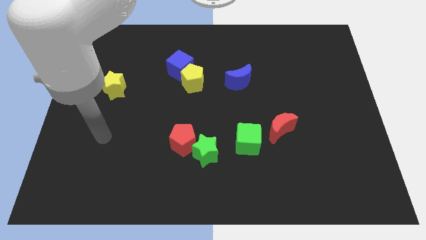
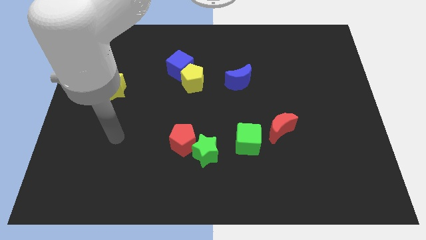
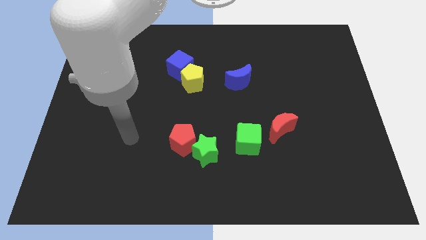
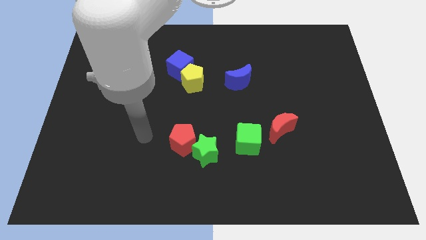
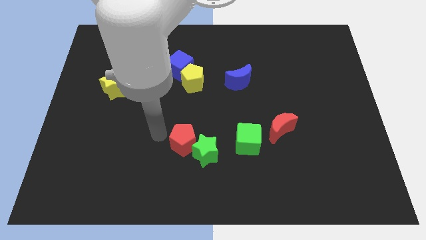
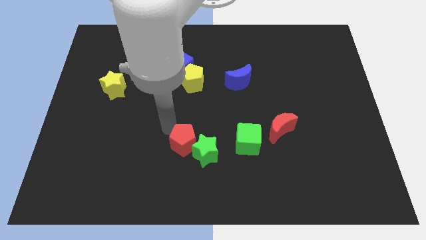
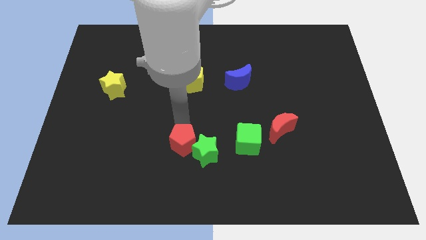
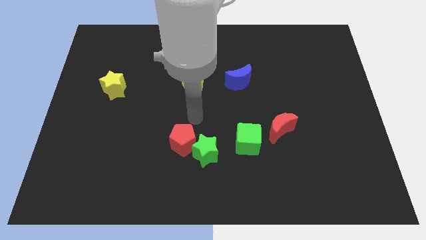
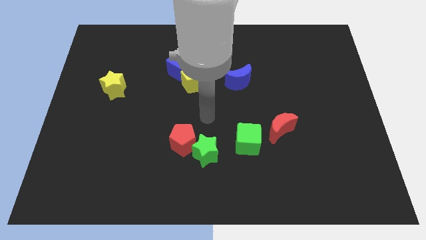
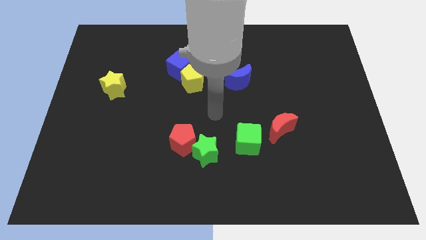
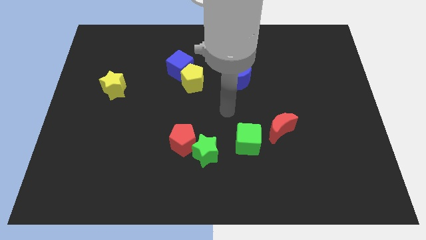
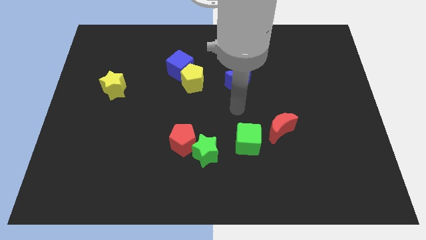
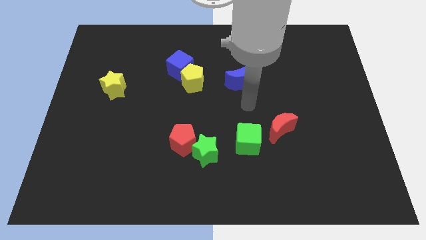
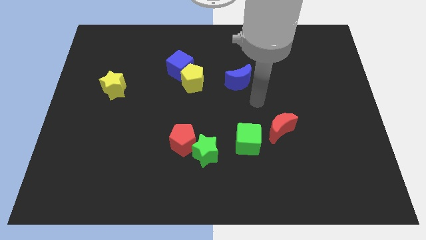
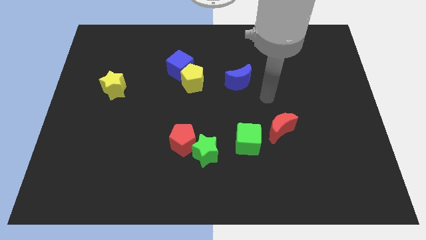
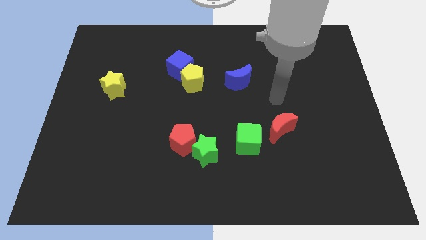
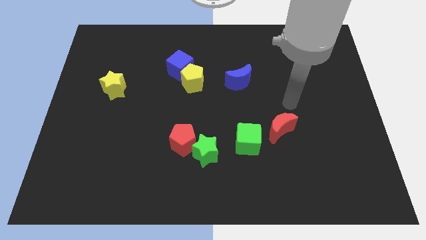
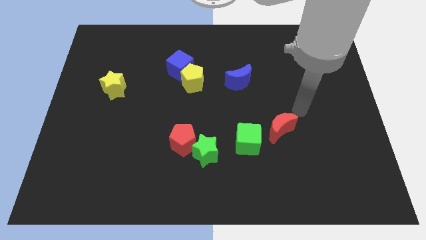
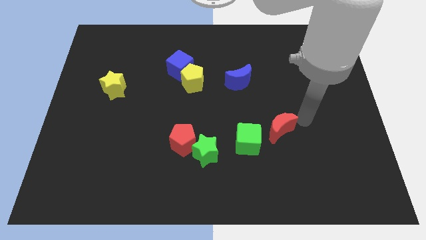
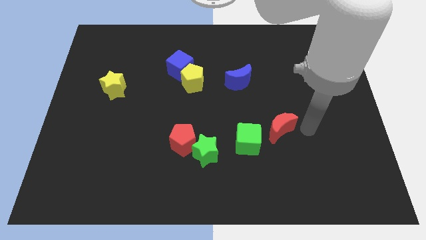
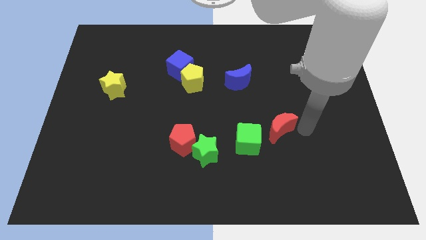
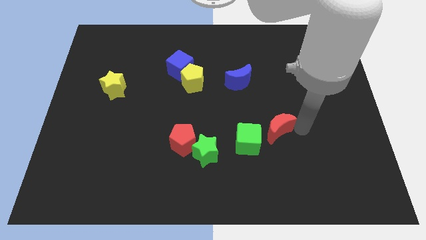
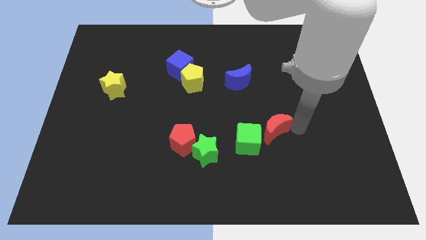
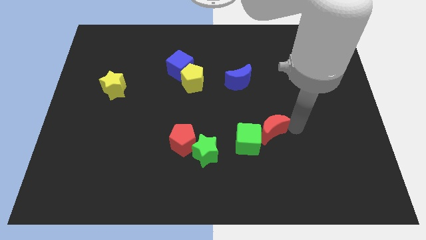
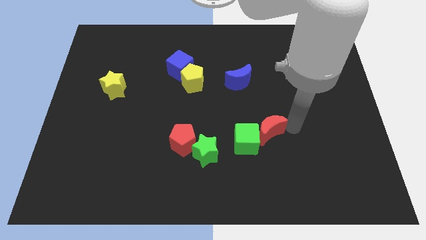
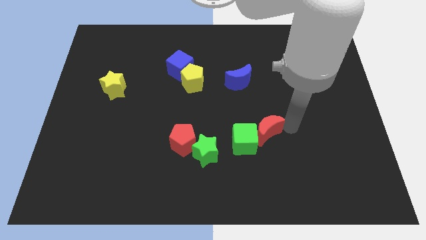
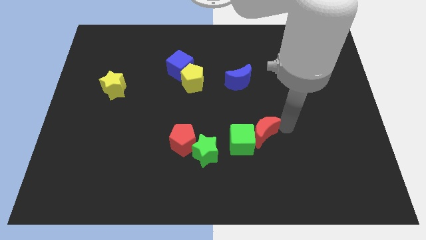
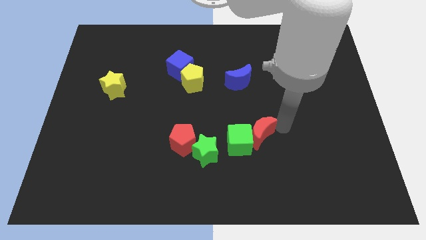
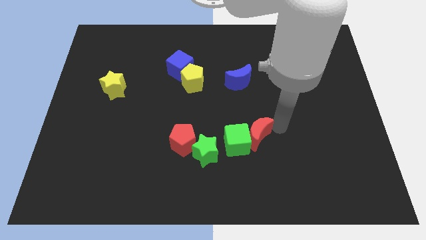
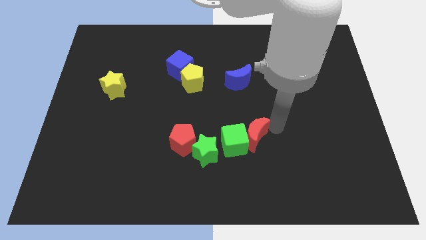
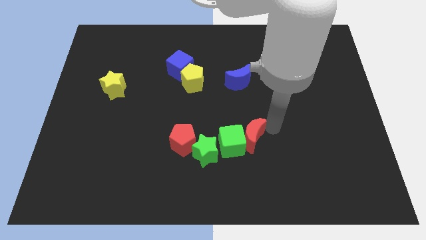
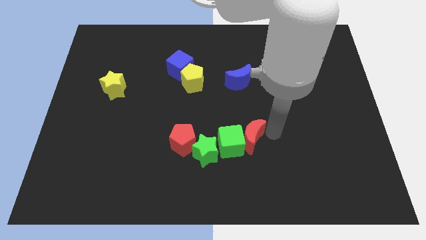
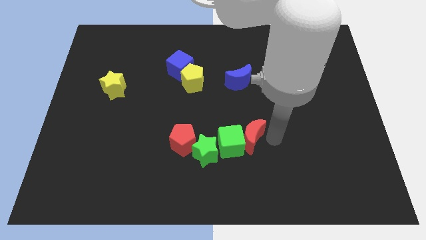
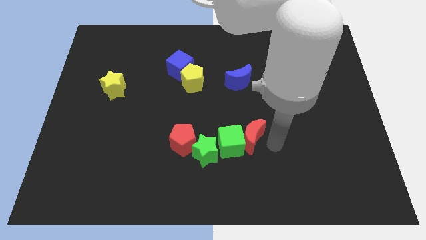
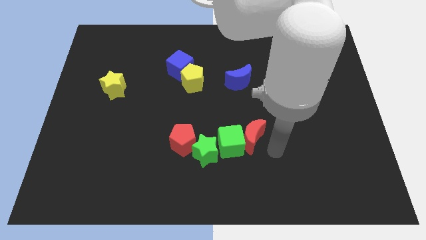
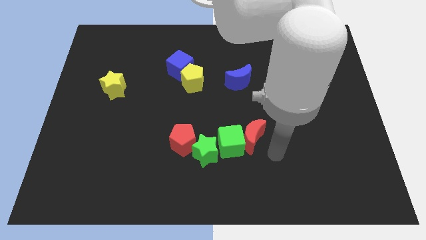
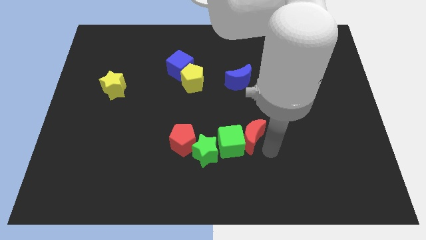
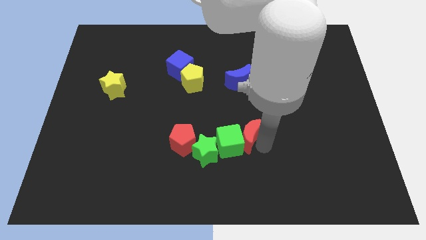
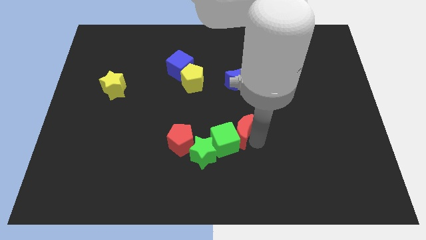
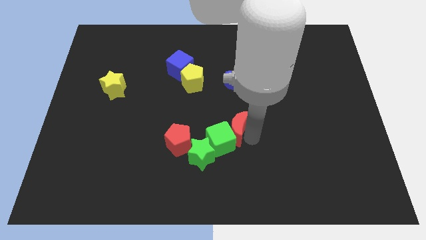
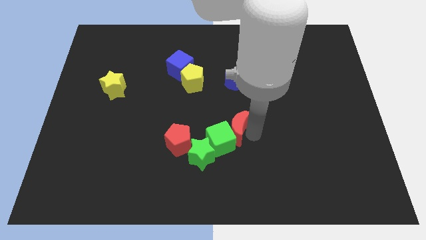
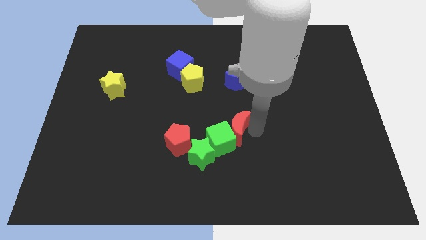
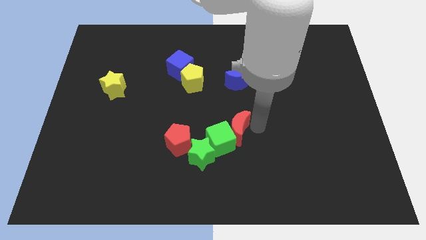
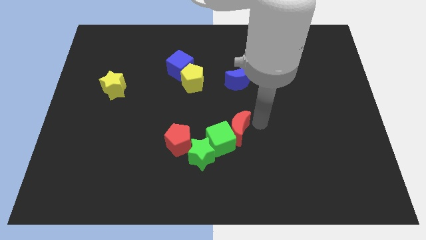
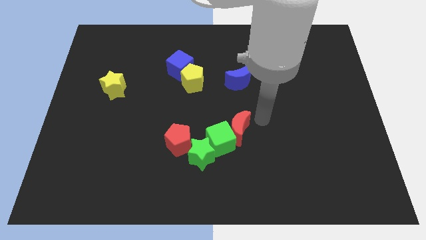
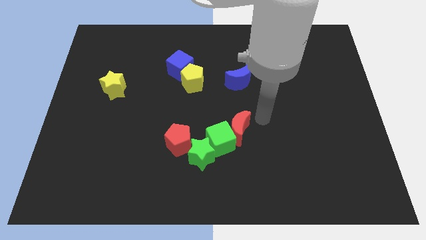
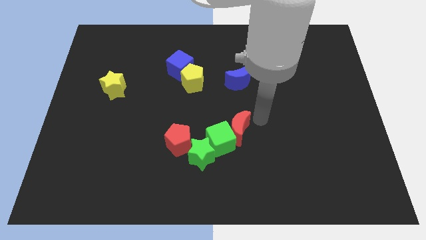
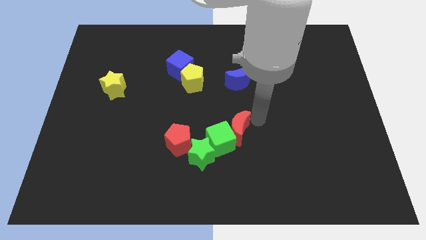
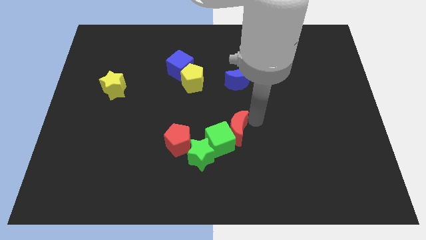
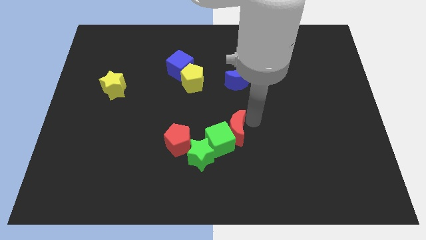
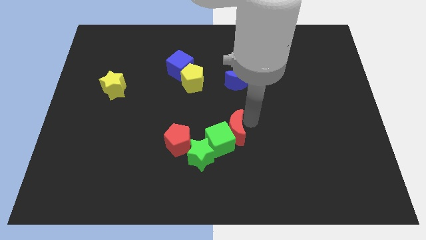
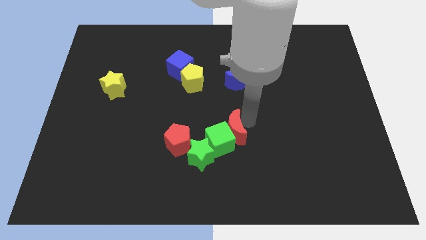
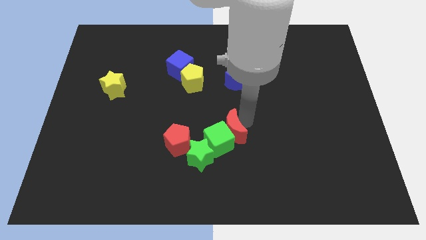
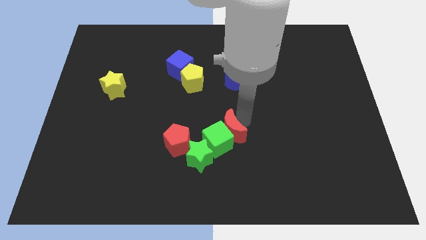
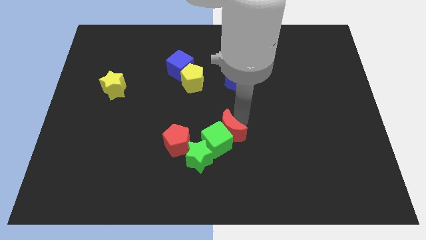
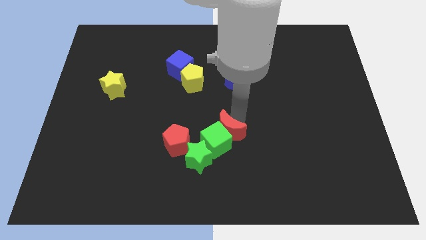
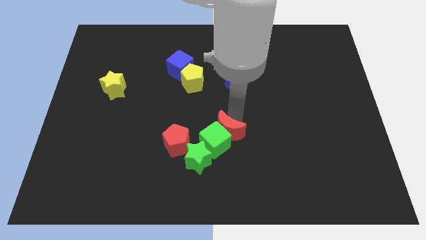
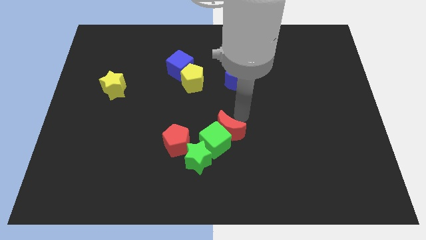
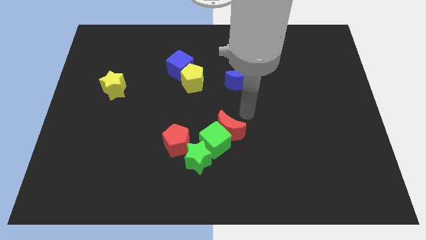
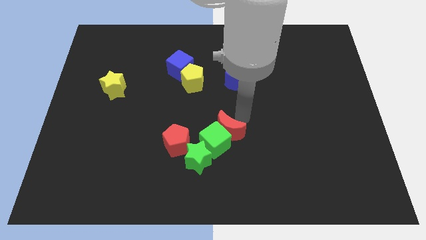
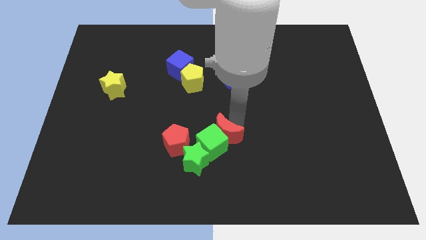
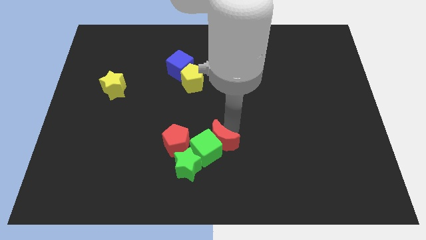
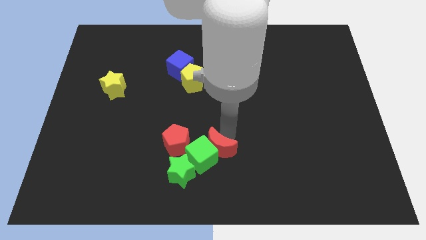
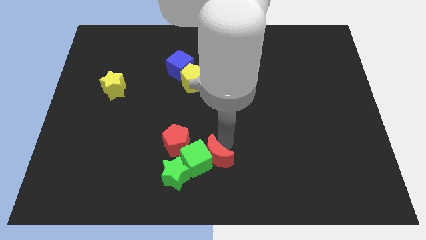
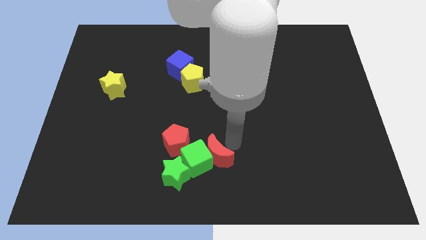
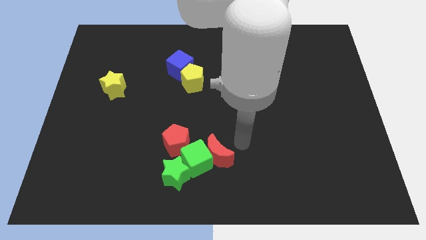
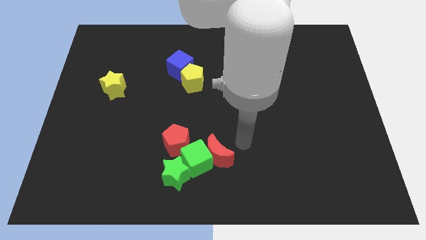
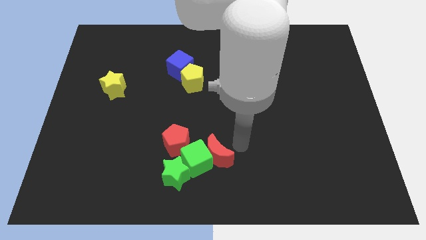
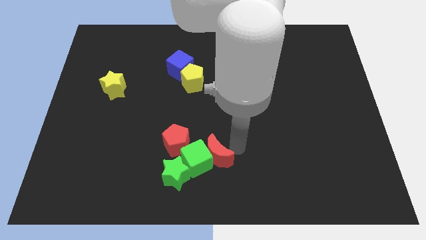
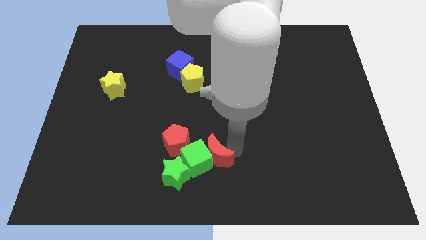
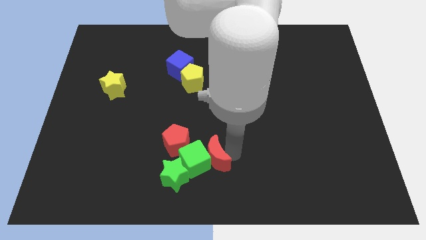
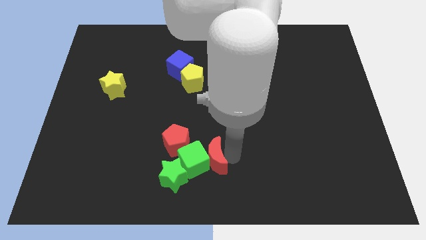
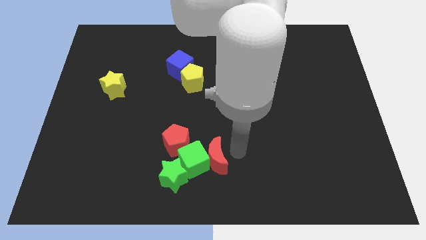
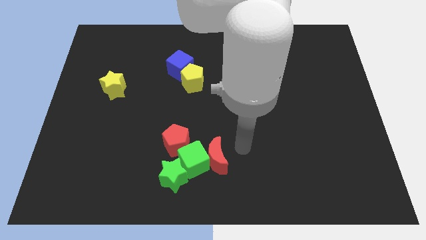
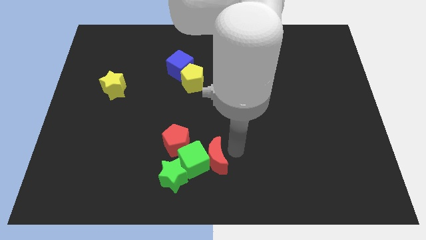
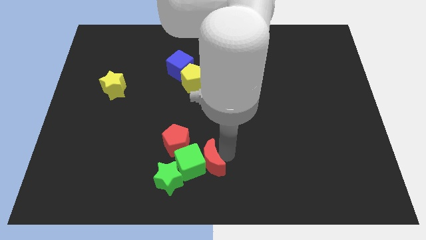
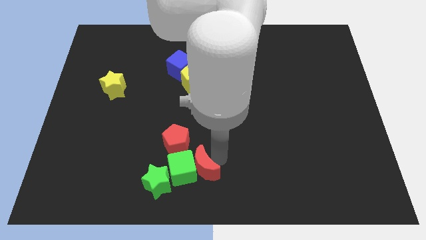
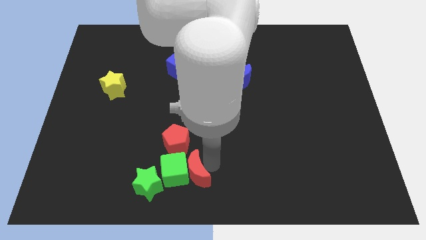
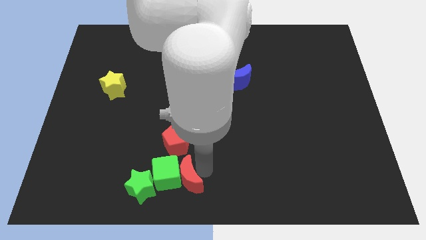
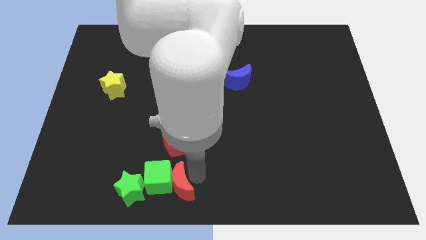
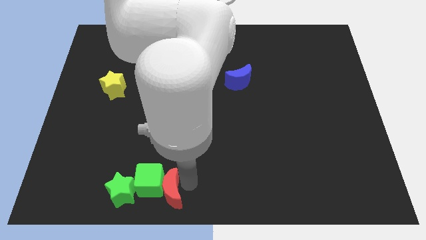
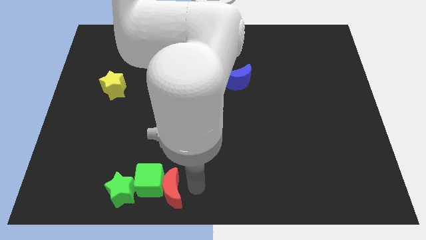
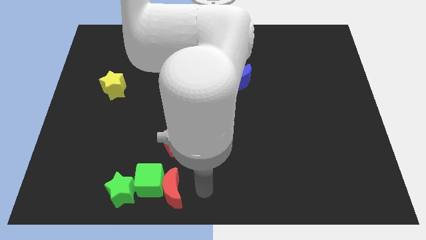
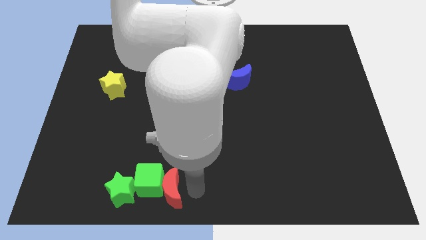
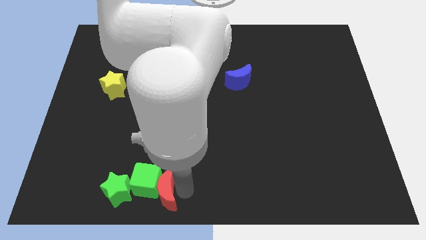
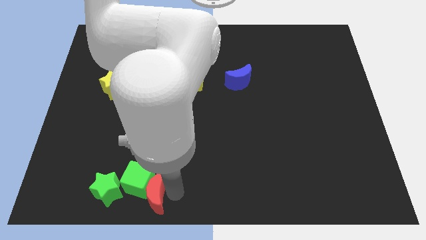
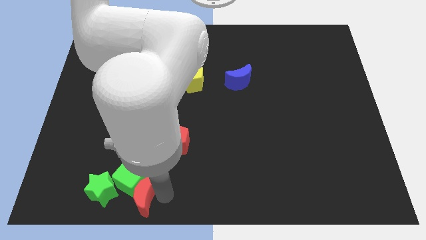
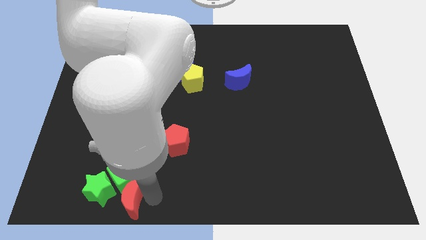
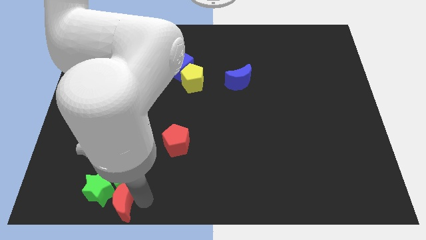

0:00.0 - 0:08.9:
slide the red moon towards the green star
